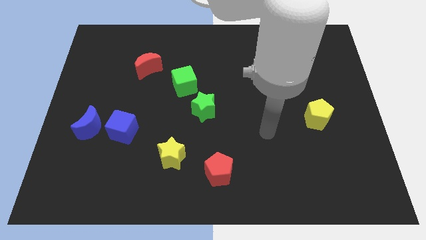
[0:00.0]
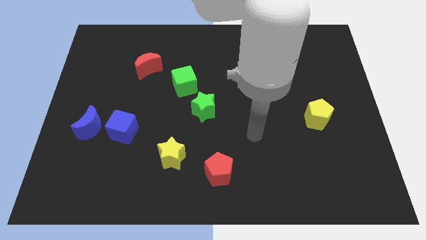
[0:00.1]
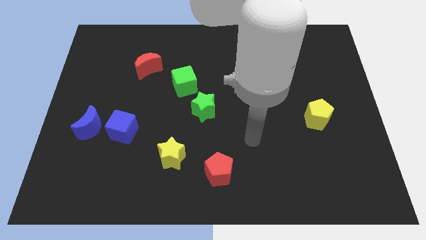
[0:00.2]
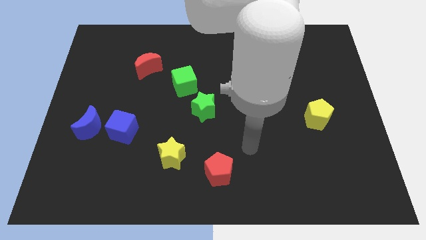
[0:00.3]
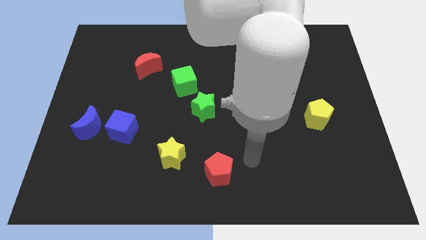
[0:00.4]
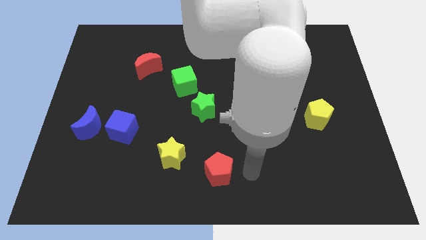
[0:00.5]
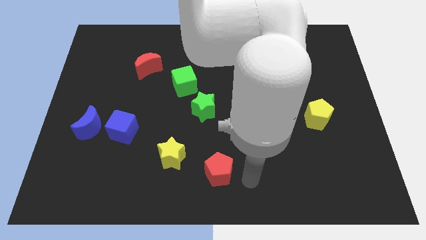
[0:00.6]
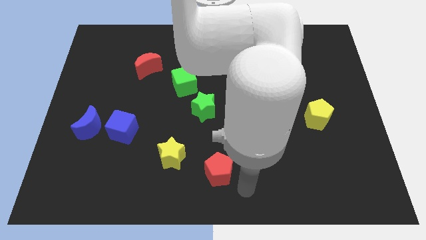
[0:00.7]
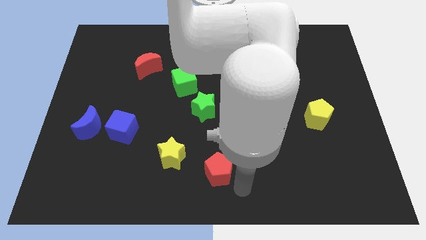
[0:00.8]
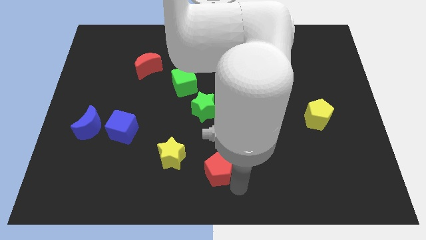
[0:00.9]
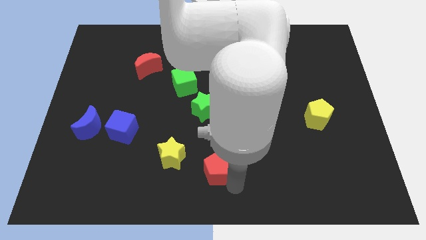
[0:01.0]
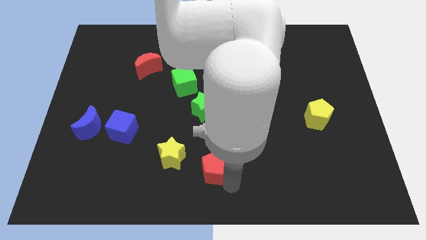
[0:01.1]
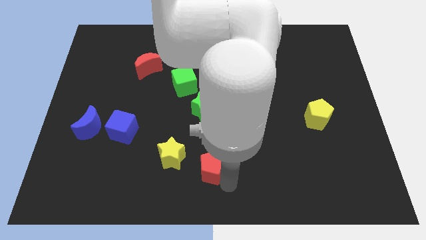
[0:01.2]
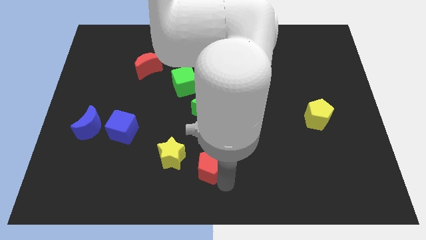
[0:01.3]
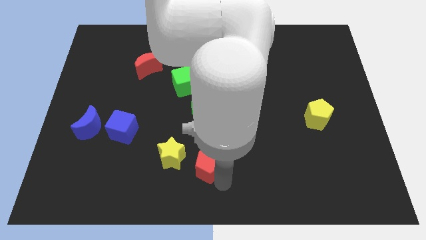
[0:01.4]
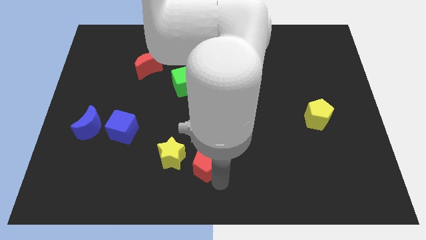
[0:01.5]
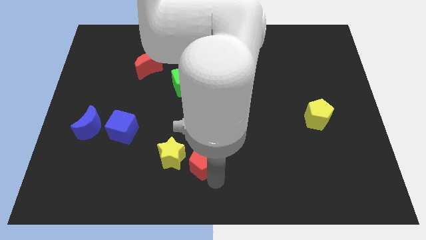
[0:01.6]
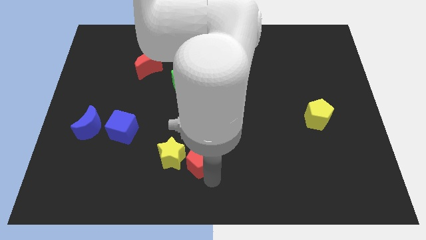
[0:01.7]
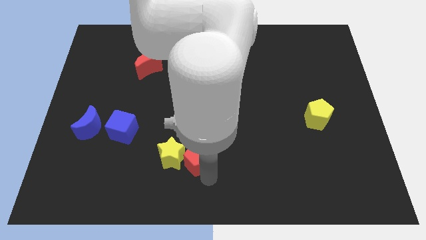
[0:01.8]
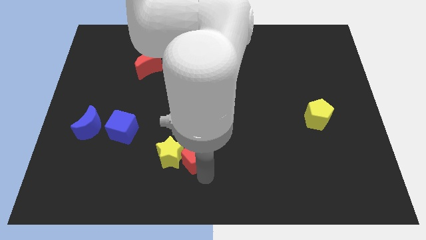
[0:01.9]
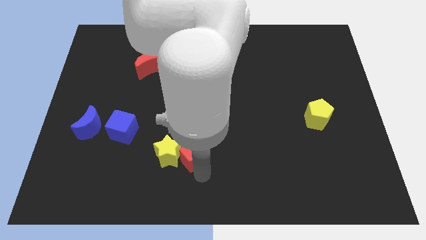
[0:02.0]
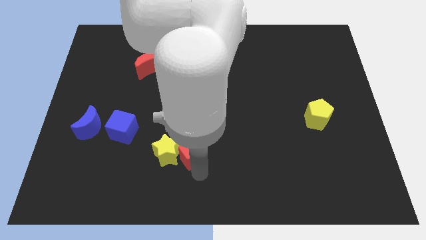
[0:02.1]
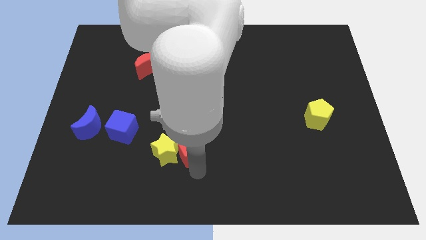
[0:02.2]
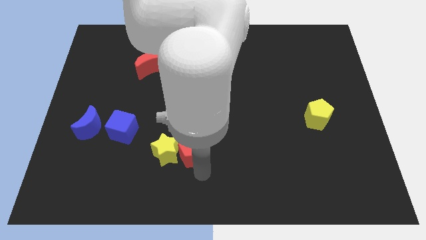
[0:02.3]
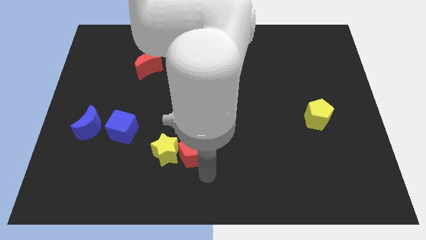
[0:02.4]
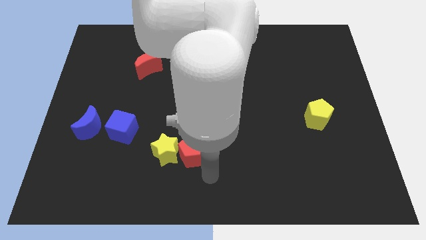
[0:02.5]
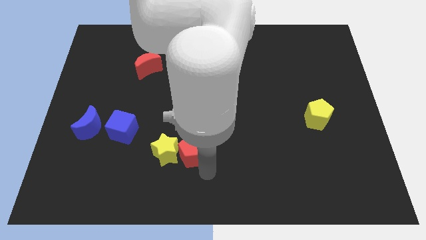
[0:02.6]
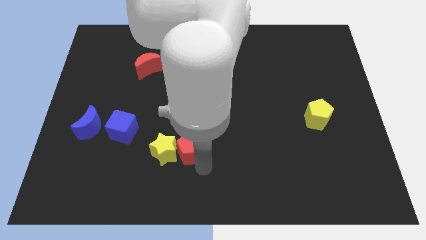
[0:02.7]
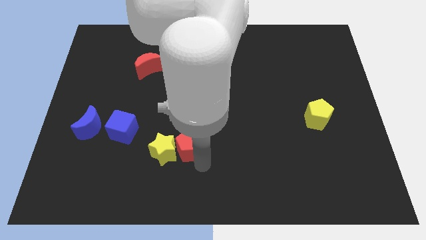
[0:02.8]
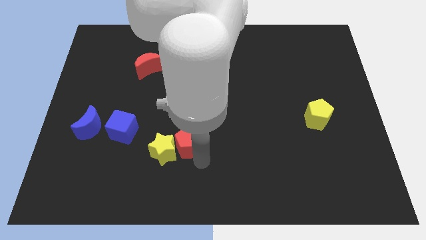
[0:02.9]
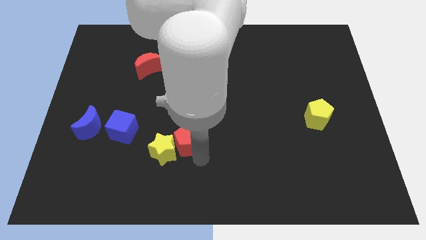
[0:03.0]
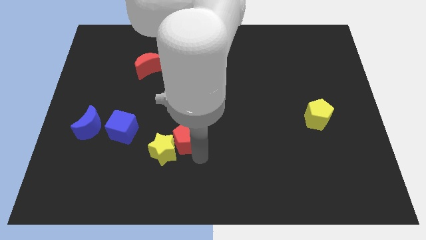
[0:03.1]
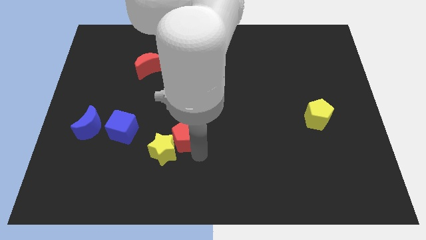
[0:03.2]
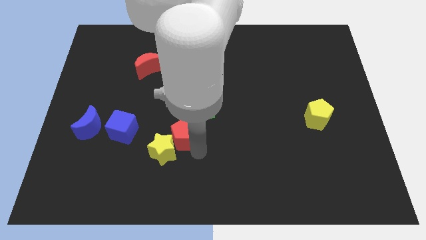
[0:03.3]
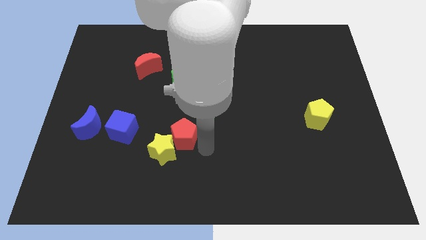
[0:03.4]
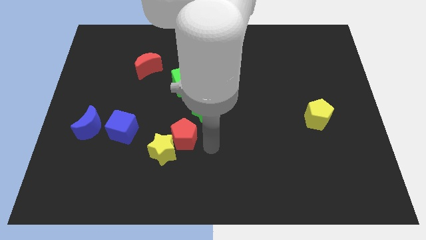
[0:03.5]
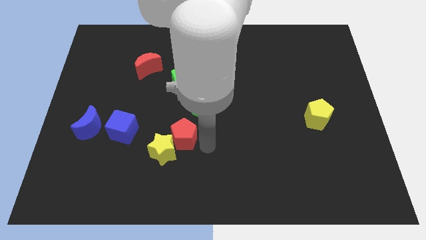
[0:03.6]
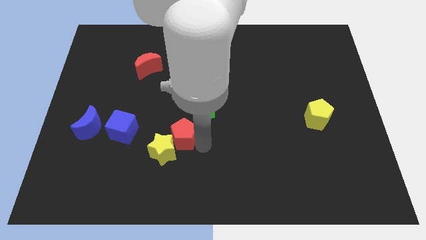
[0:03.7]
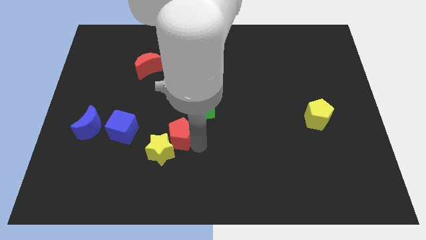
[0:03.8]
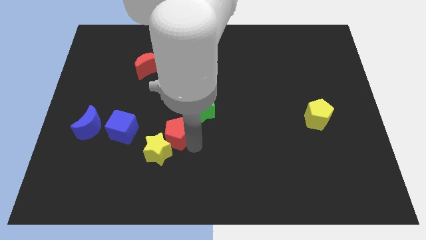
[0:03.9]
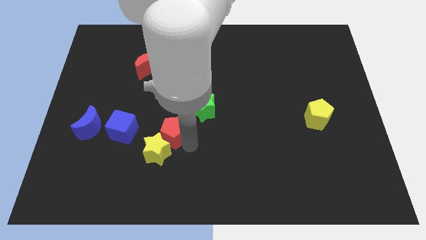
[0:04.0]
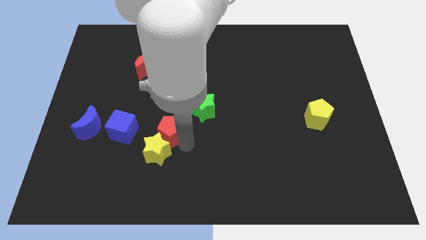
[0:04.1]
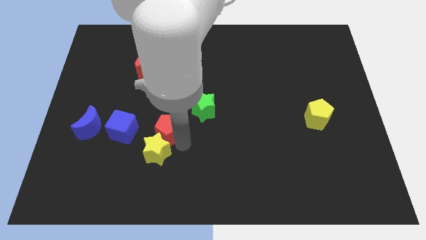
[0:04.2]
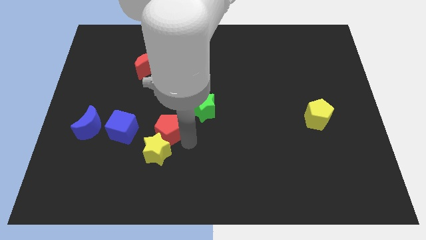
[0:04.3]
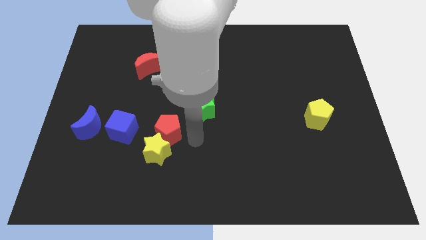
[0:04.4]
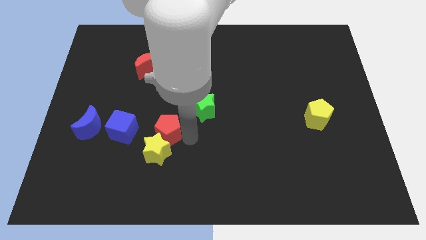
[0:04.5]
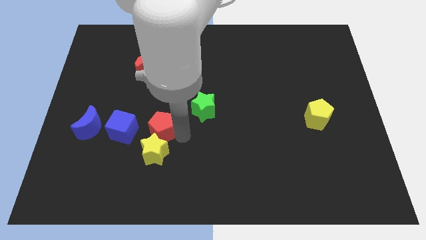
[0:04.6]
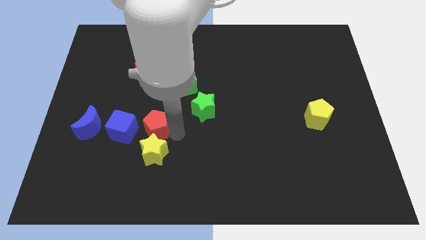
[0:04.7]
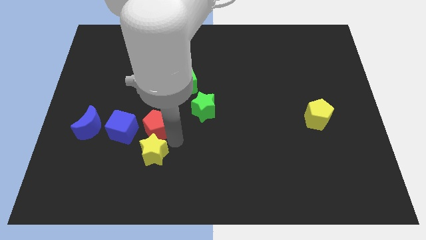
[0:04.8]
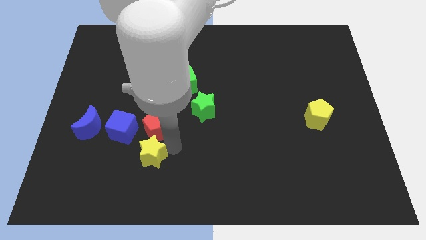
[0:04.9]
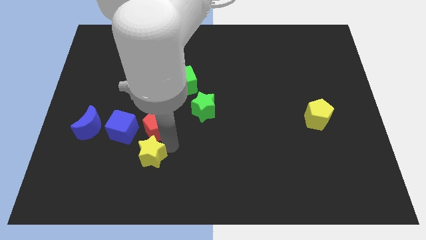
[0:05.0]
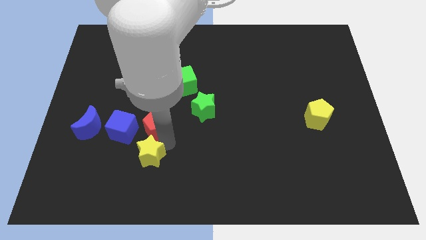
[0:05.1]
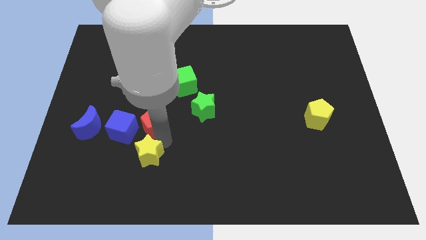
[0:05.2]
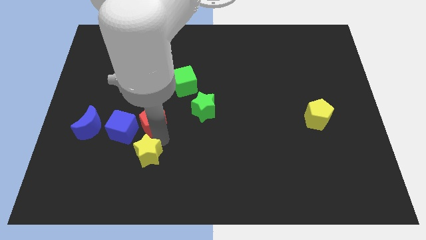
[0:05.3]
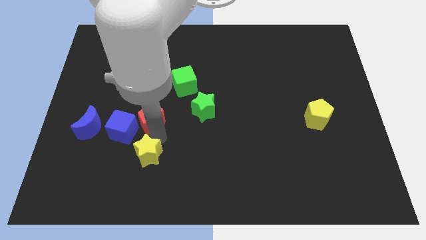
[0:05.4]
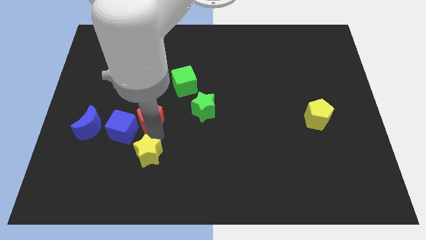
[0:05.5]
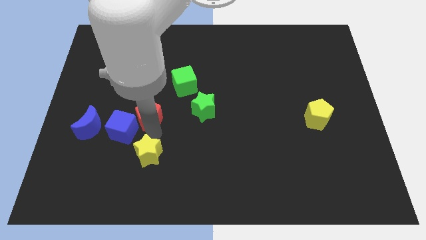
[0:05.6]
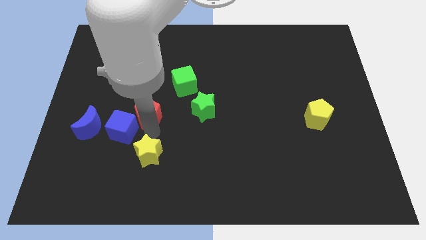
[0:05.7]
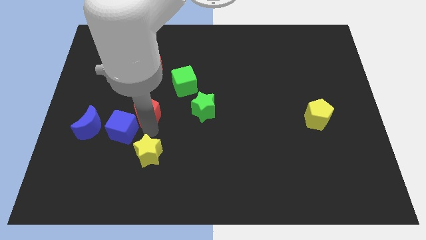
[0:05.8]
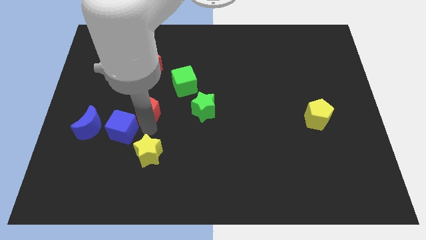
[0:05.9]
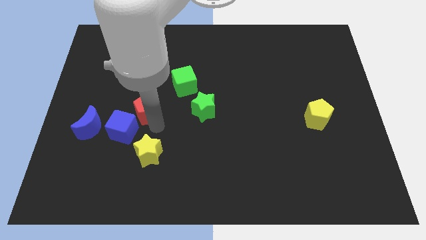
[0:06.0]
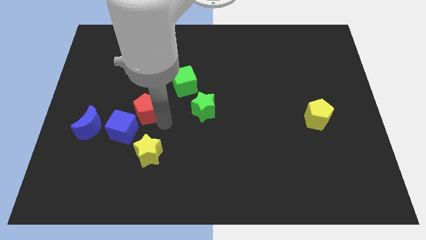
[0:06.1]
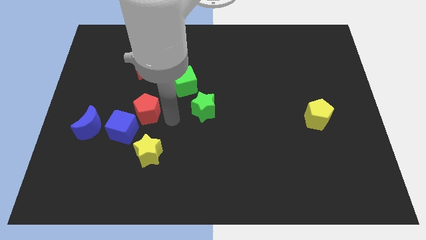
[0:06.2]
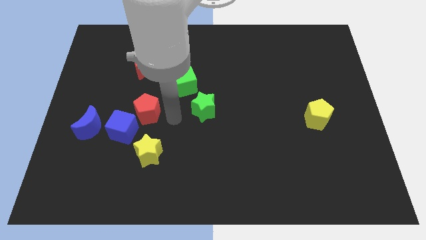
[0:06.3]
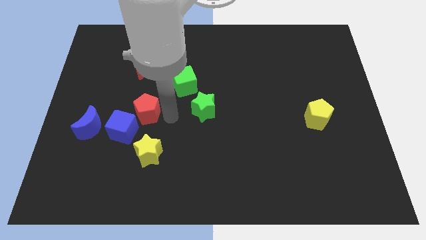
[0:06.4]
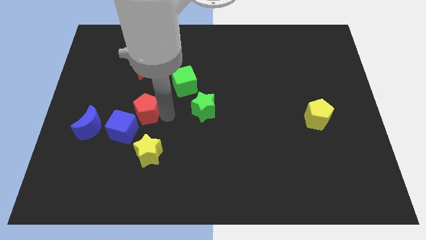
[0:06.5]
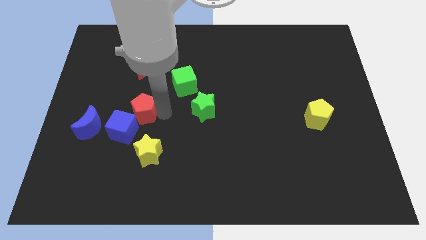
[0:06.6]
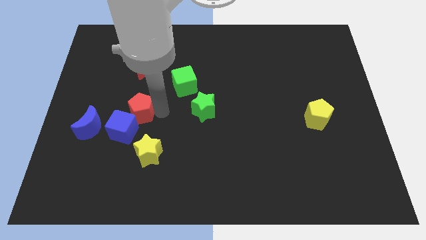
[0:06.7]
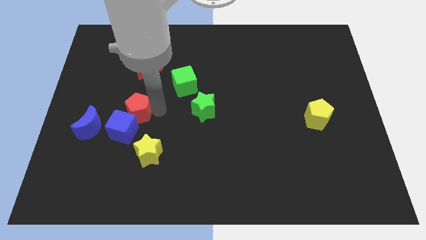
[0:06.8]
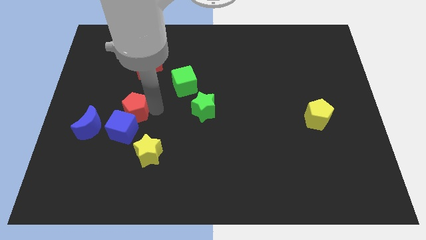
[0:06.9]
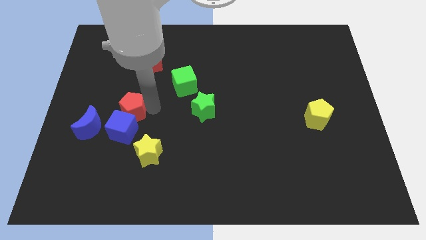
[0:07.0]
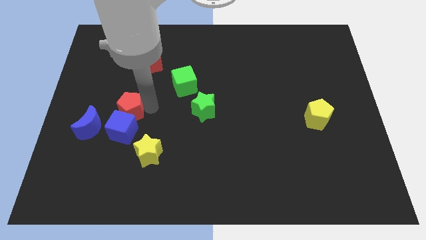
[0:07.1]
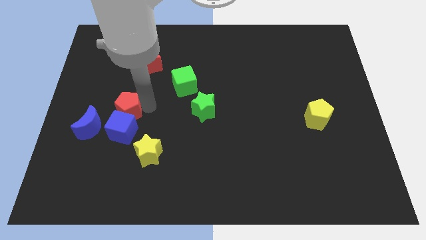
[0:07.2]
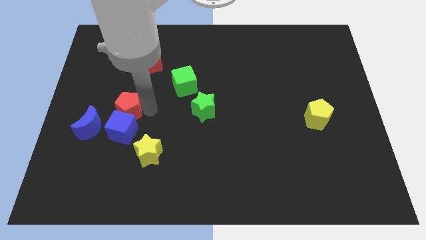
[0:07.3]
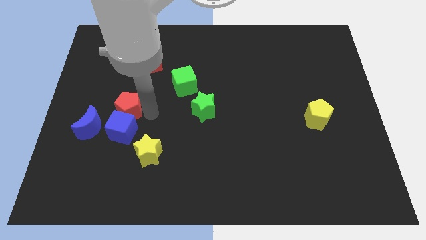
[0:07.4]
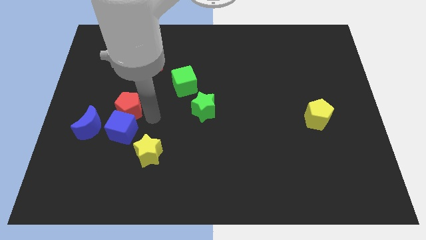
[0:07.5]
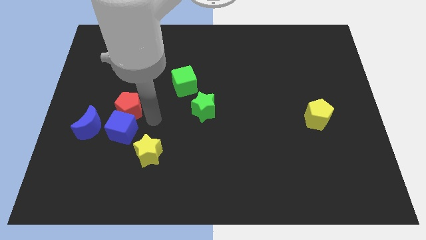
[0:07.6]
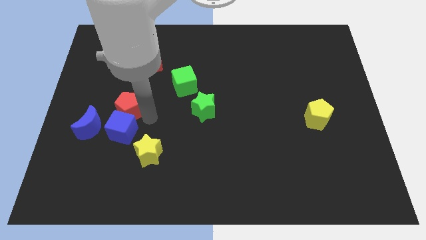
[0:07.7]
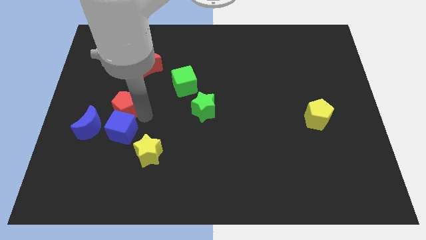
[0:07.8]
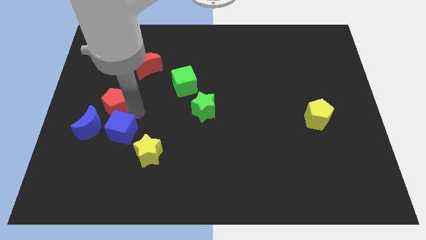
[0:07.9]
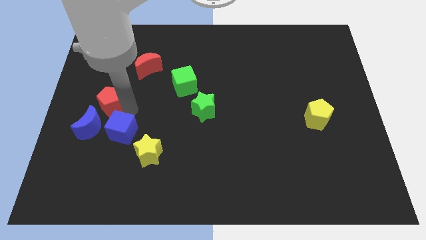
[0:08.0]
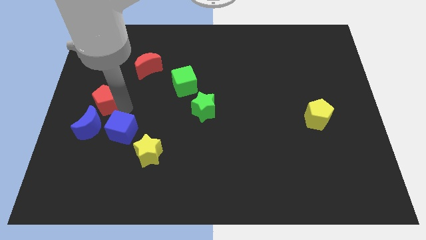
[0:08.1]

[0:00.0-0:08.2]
slide the red pentagon to the left side
